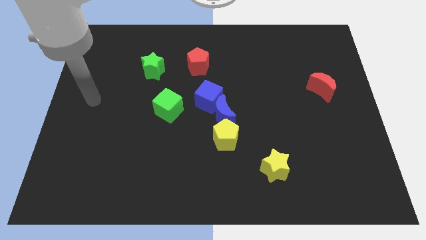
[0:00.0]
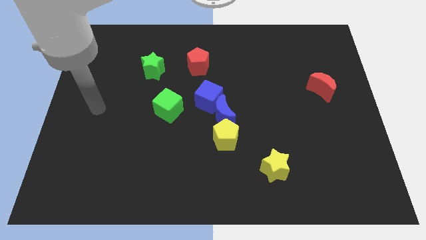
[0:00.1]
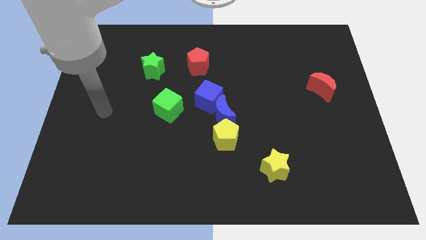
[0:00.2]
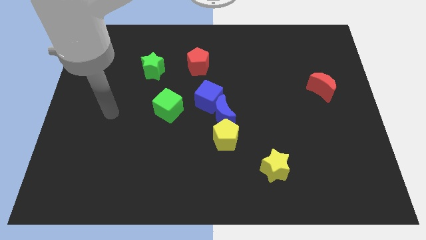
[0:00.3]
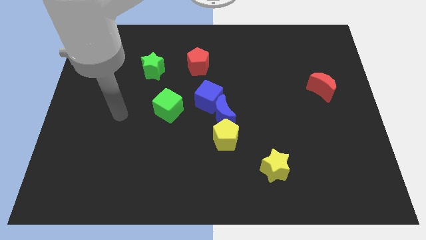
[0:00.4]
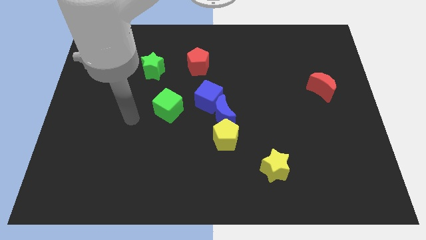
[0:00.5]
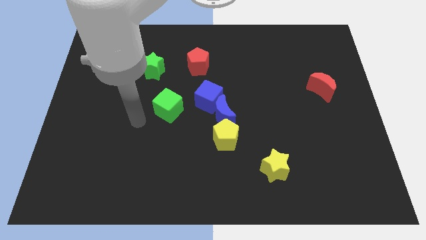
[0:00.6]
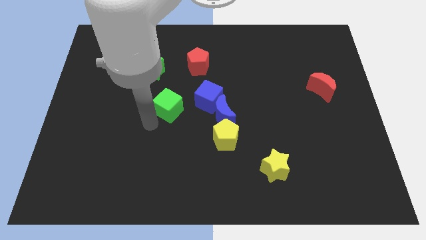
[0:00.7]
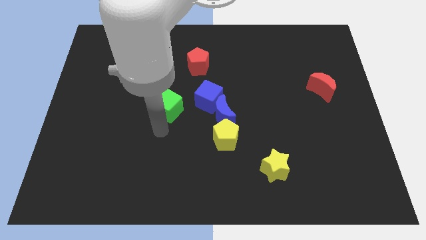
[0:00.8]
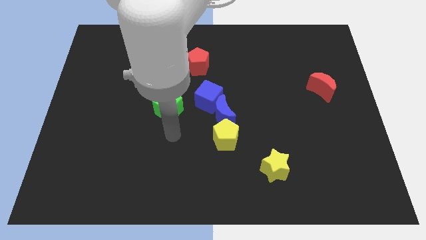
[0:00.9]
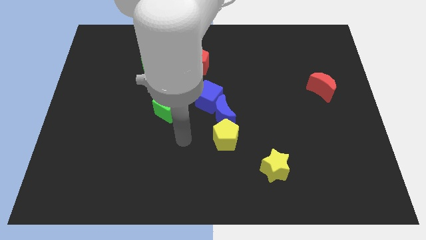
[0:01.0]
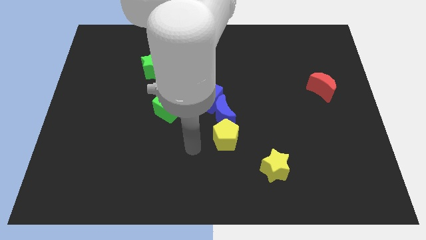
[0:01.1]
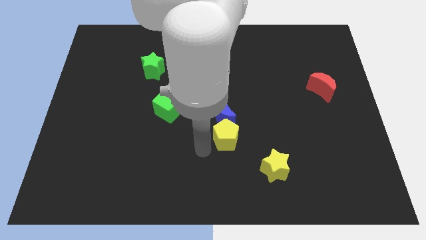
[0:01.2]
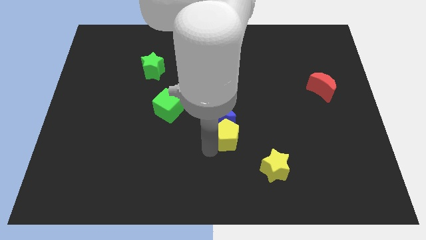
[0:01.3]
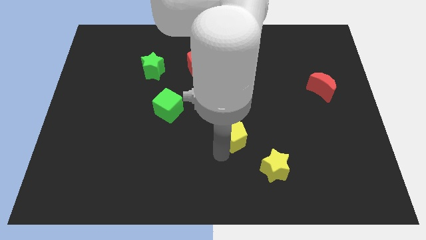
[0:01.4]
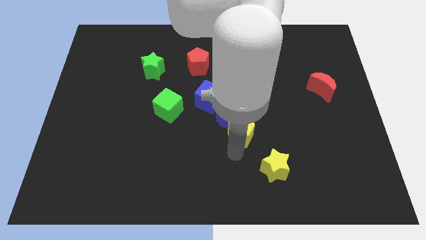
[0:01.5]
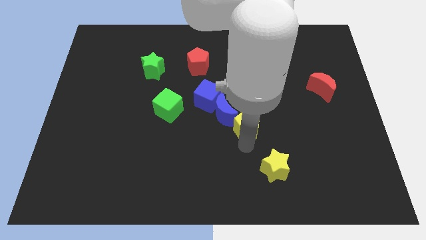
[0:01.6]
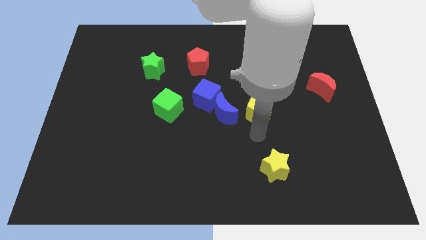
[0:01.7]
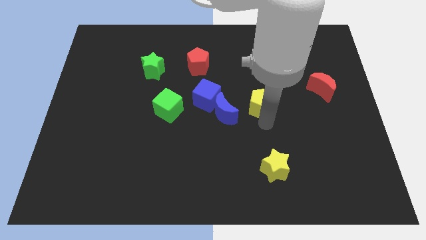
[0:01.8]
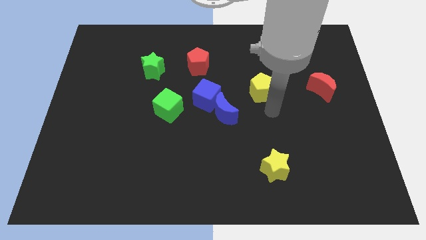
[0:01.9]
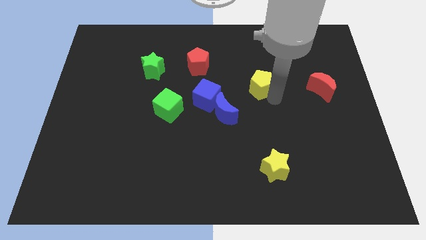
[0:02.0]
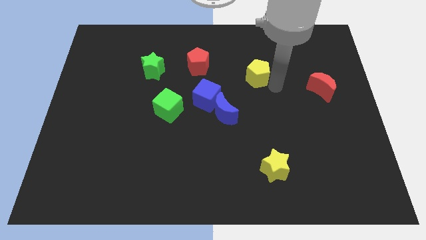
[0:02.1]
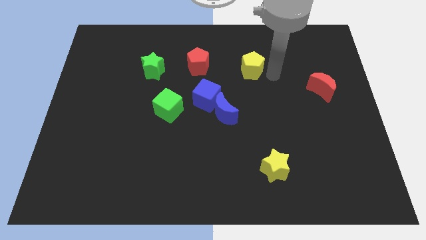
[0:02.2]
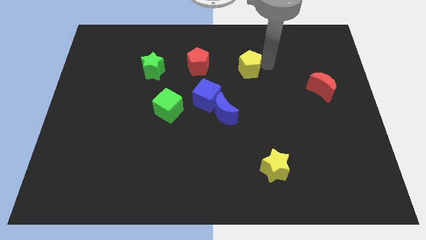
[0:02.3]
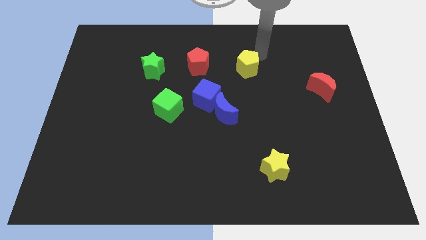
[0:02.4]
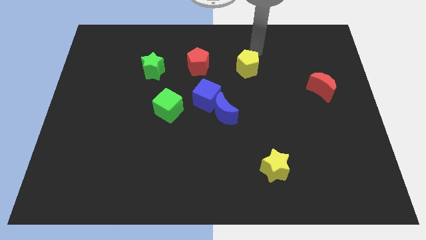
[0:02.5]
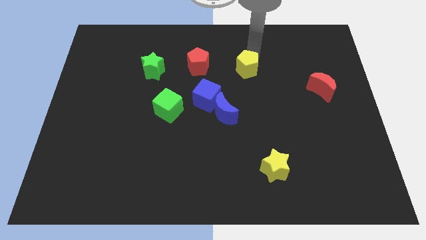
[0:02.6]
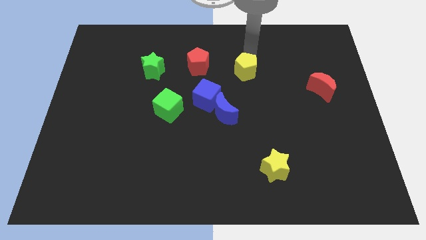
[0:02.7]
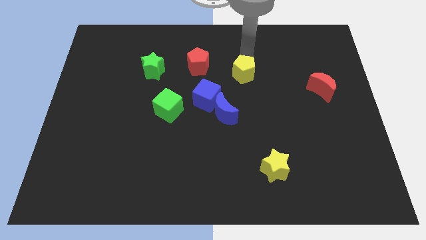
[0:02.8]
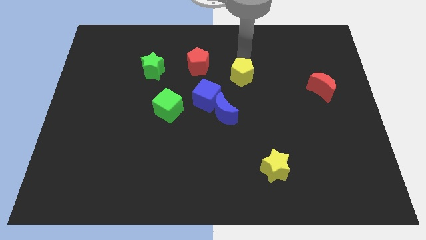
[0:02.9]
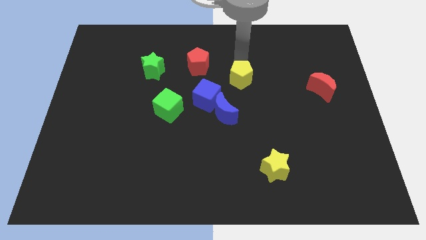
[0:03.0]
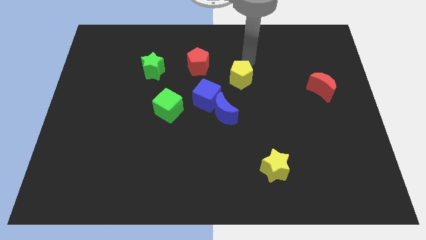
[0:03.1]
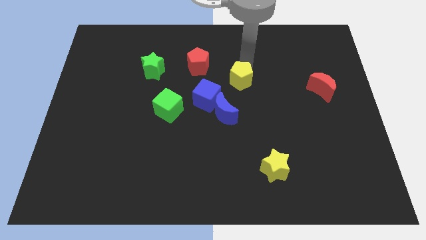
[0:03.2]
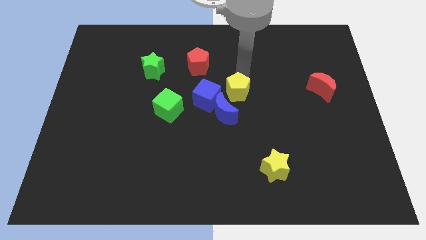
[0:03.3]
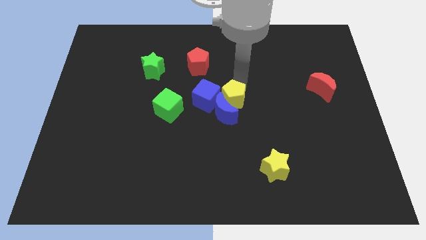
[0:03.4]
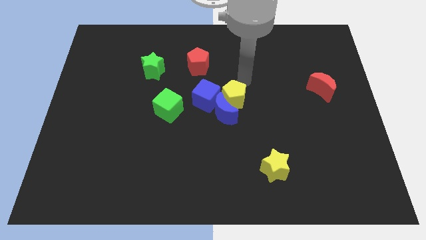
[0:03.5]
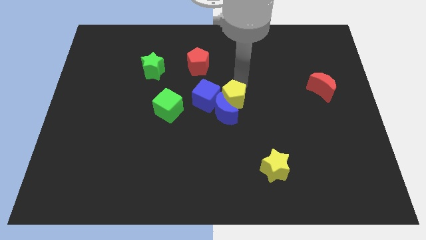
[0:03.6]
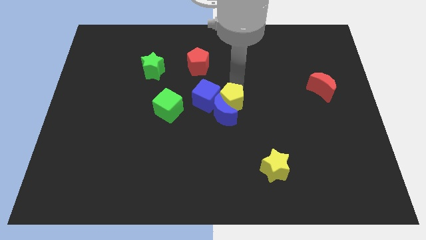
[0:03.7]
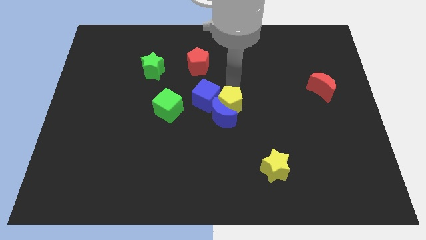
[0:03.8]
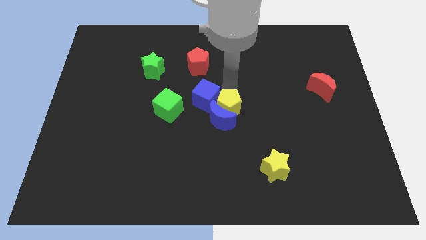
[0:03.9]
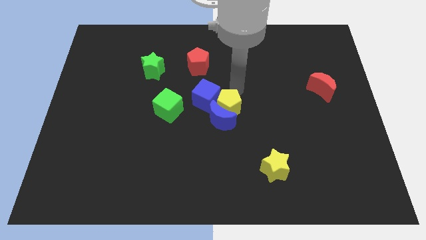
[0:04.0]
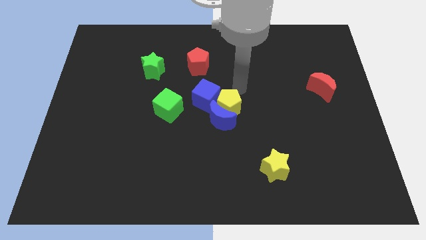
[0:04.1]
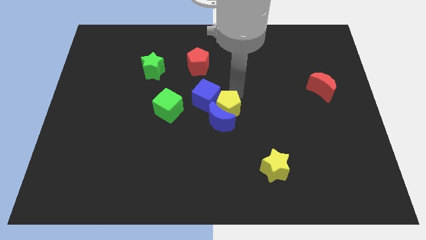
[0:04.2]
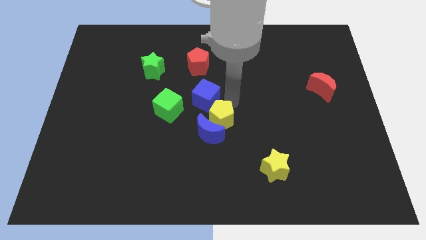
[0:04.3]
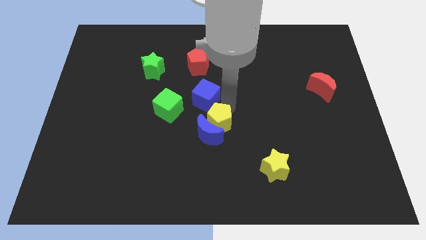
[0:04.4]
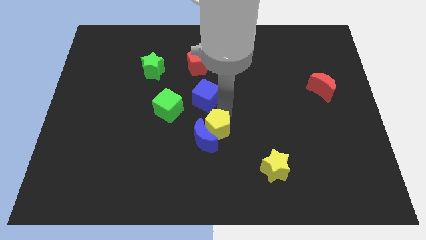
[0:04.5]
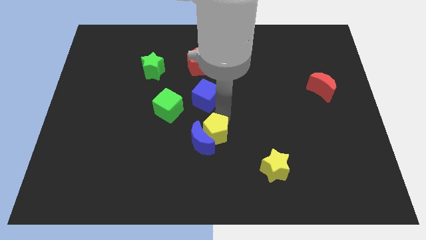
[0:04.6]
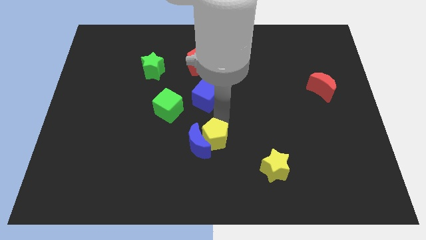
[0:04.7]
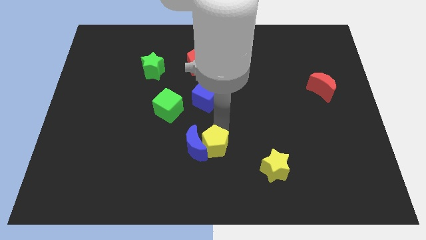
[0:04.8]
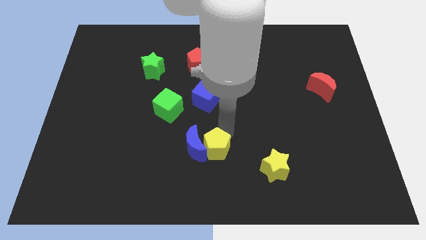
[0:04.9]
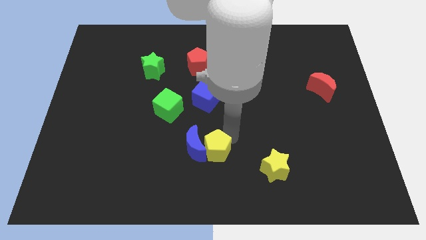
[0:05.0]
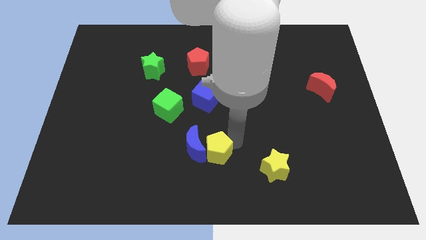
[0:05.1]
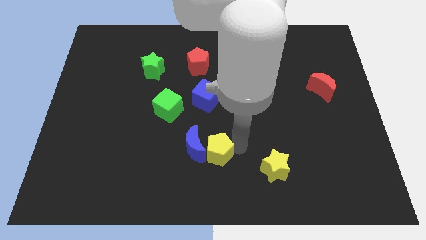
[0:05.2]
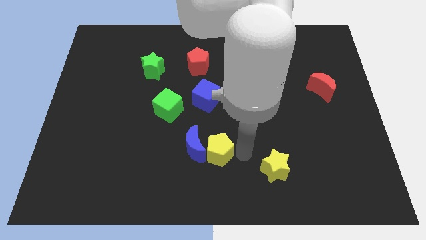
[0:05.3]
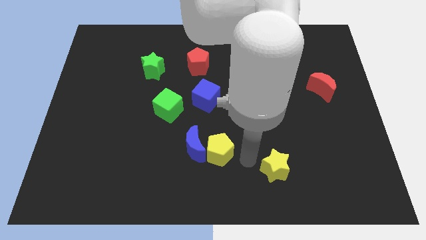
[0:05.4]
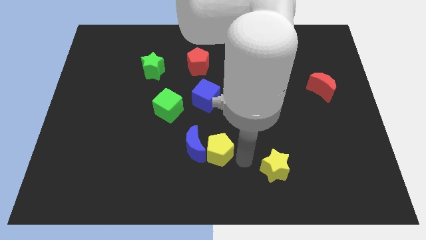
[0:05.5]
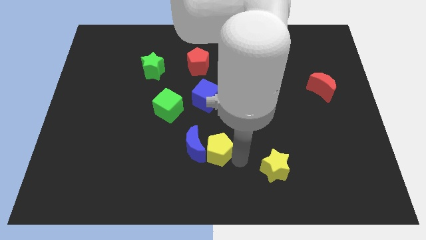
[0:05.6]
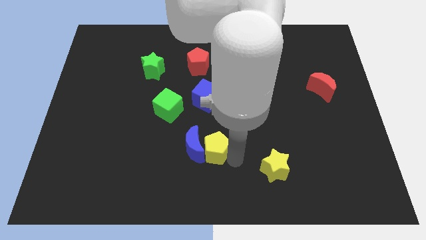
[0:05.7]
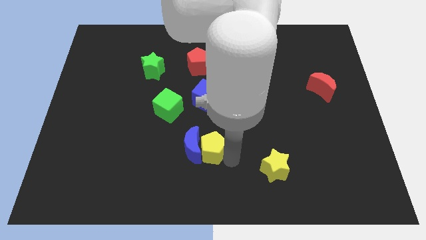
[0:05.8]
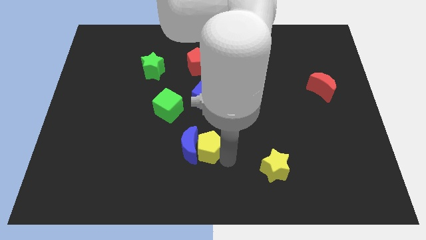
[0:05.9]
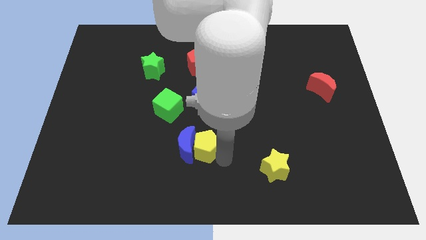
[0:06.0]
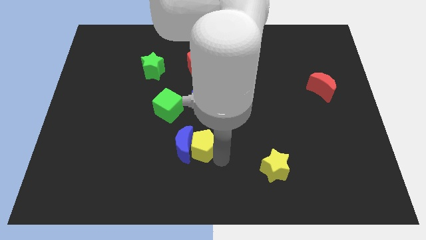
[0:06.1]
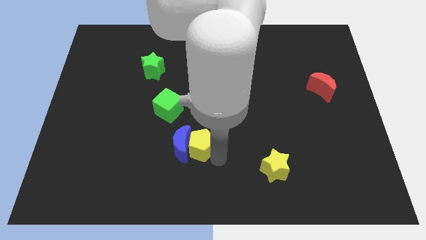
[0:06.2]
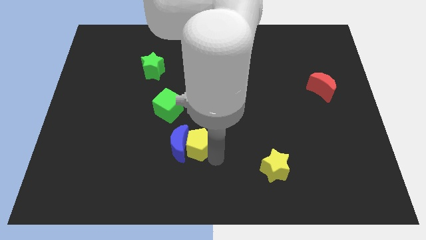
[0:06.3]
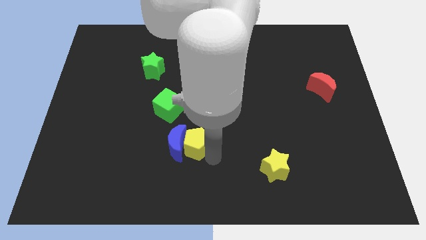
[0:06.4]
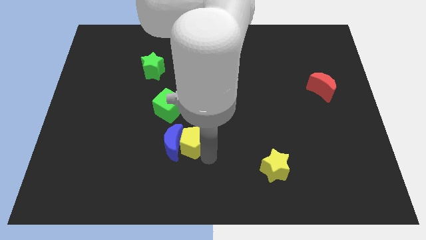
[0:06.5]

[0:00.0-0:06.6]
slide the yellow pentagon a little to the left

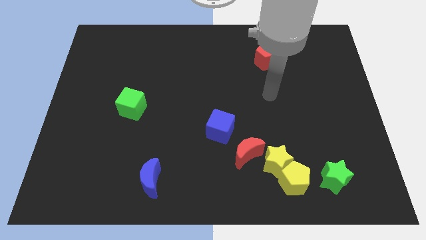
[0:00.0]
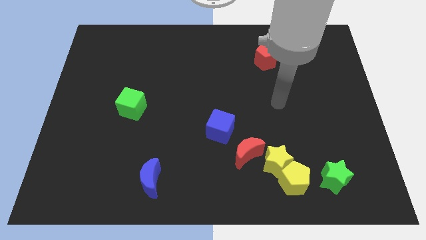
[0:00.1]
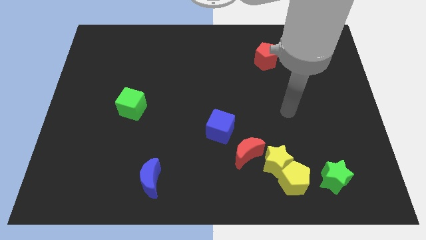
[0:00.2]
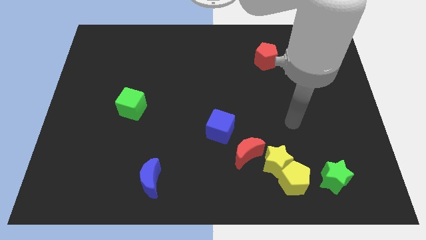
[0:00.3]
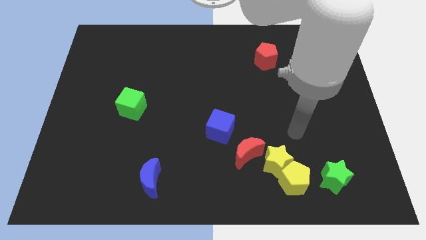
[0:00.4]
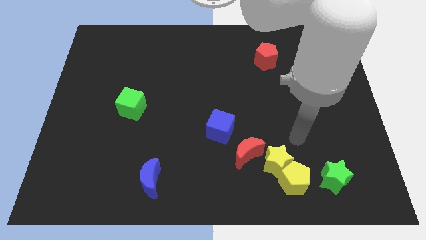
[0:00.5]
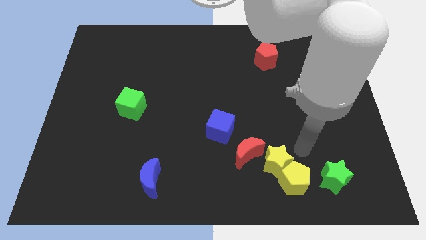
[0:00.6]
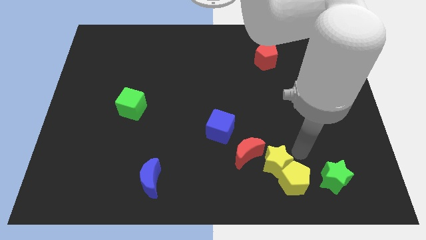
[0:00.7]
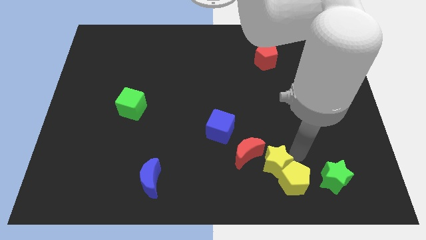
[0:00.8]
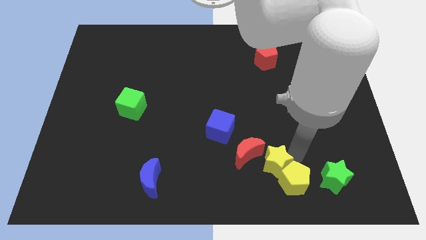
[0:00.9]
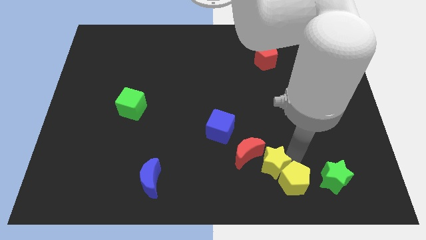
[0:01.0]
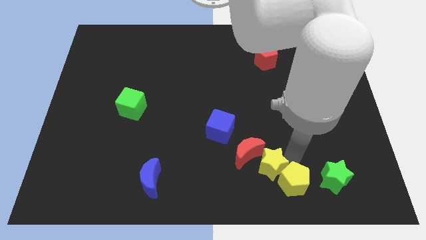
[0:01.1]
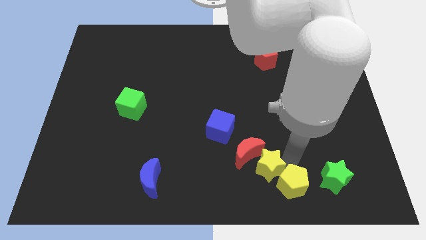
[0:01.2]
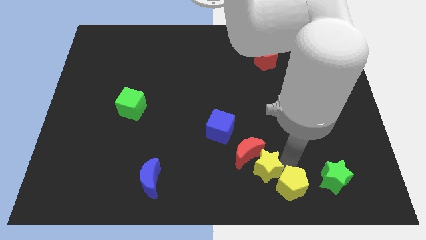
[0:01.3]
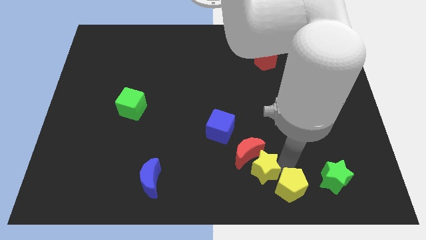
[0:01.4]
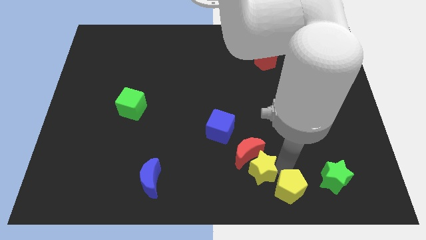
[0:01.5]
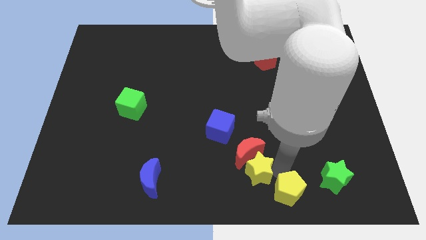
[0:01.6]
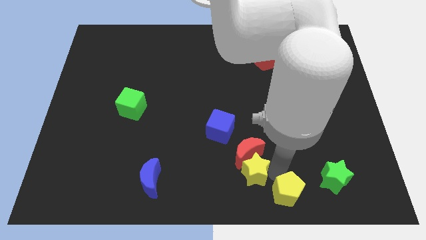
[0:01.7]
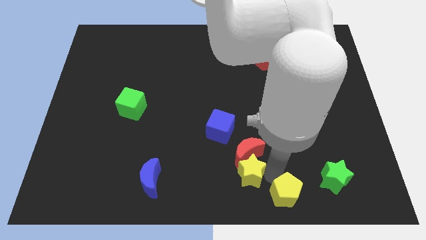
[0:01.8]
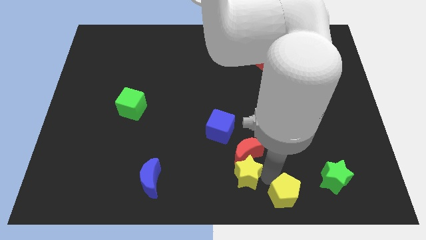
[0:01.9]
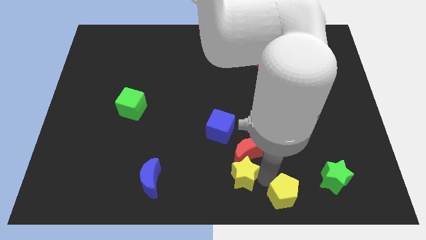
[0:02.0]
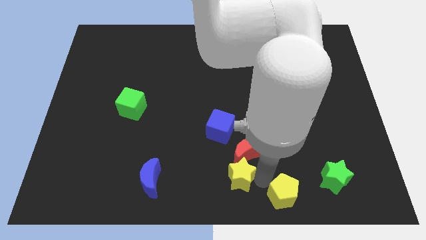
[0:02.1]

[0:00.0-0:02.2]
slide the yellow star left somewhat
